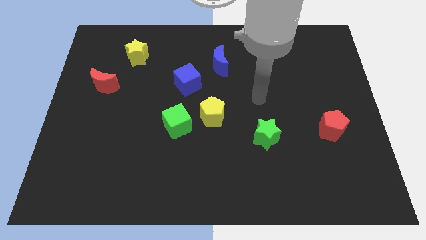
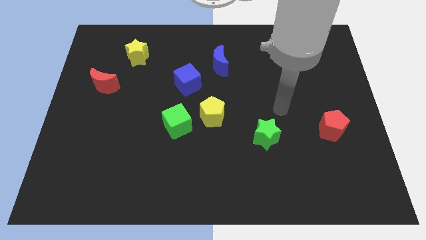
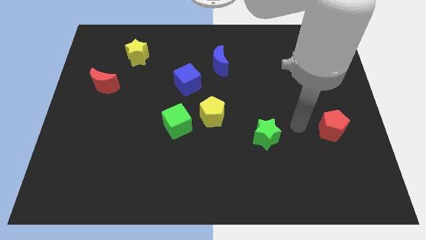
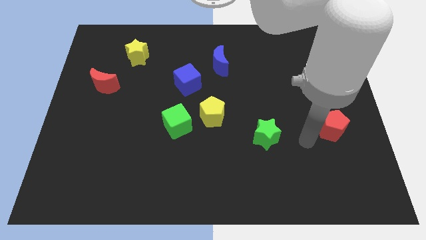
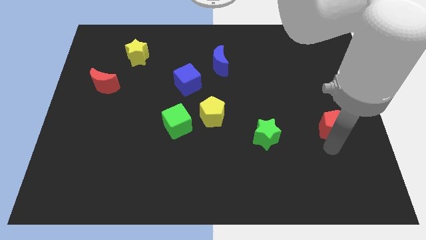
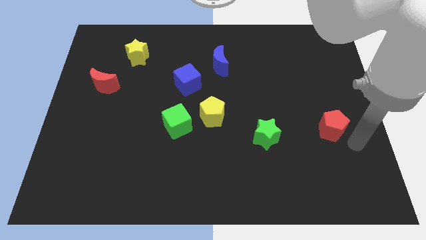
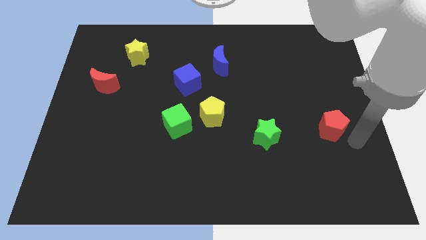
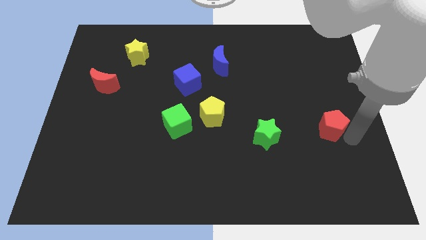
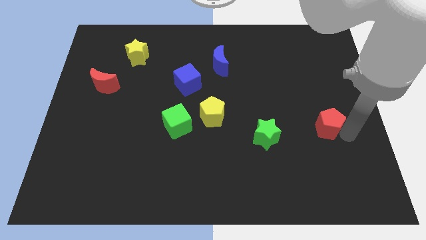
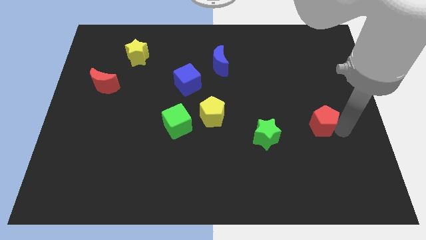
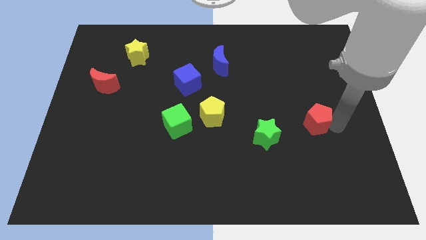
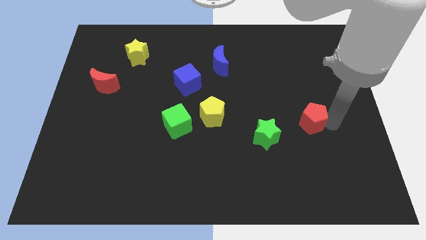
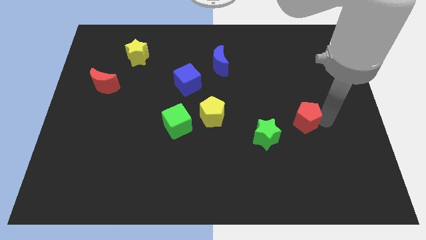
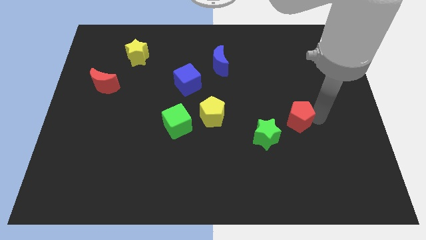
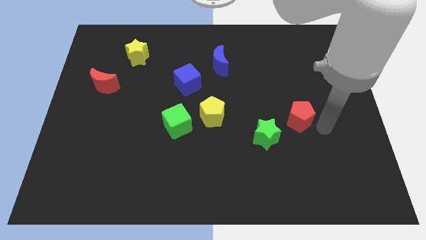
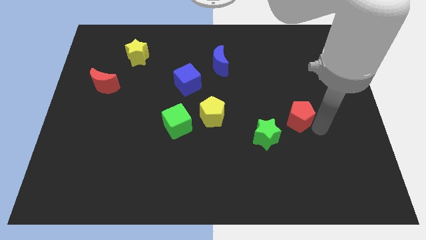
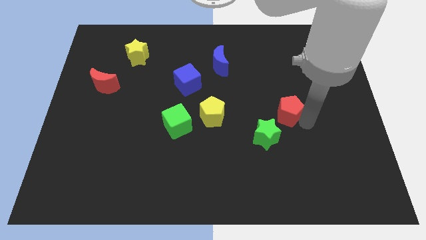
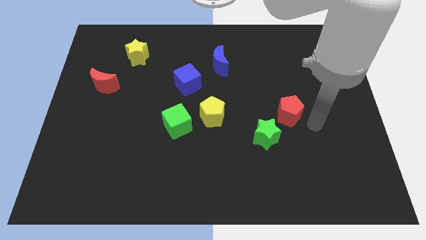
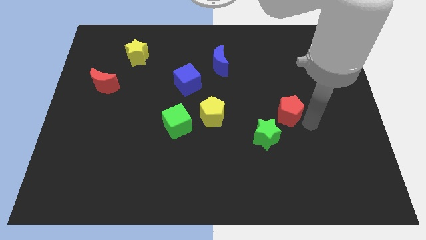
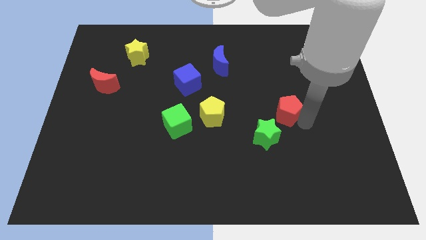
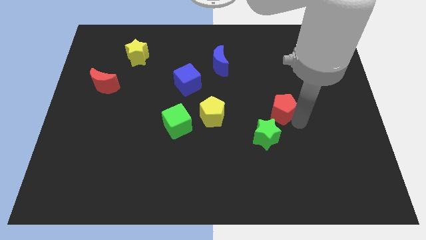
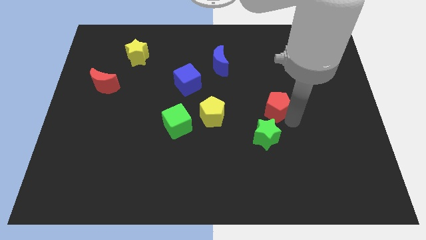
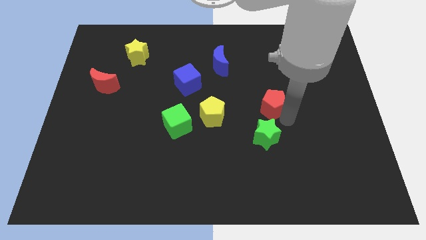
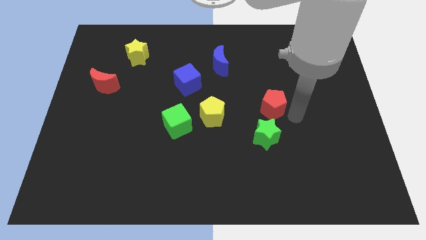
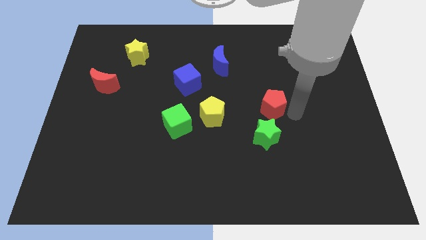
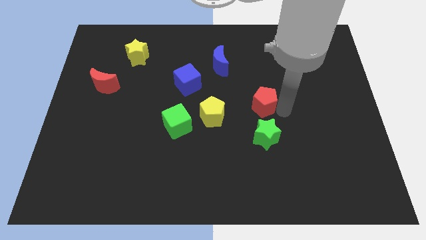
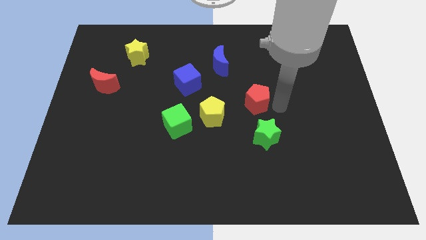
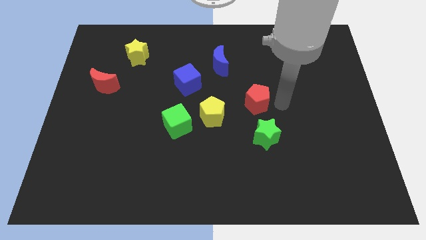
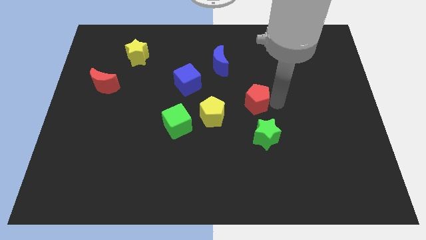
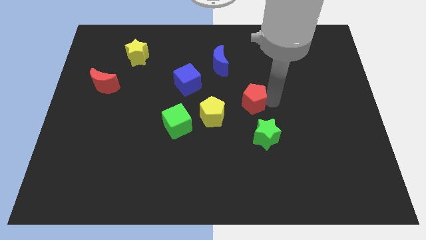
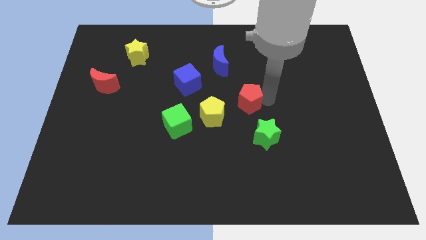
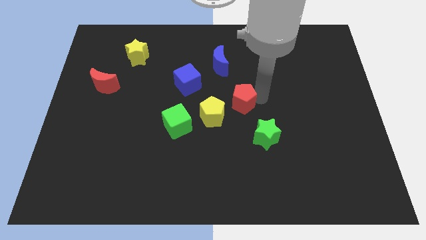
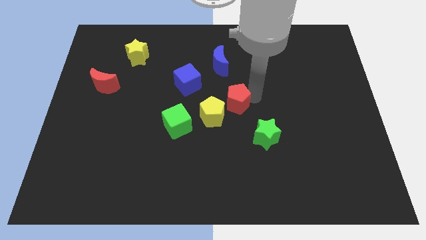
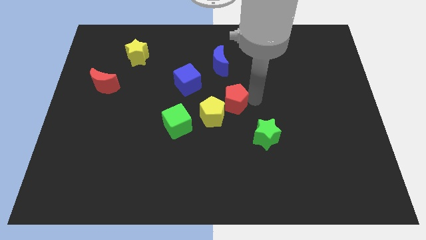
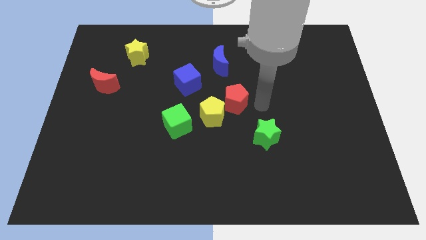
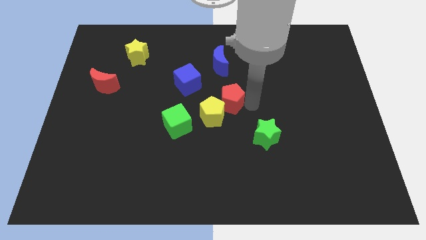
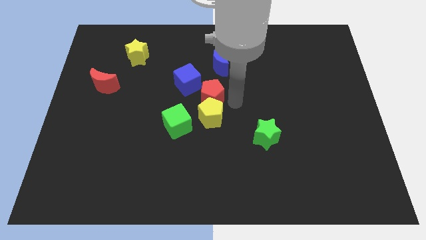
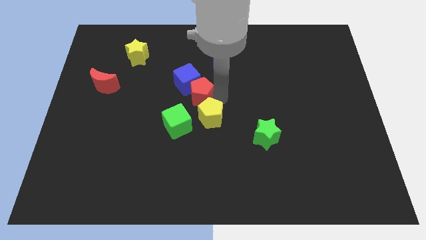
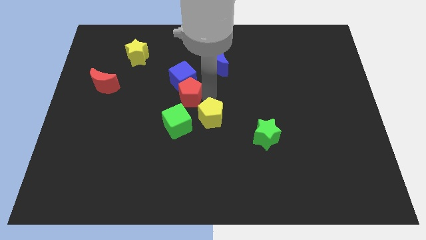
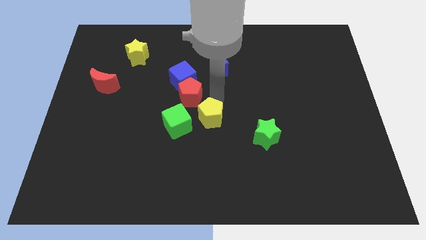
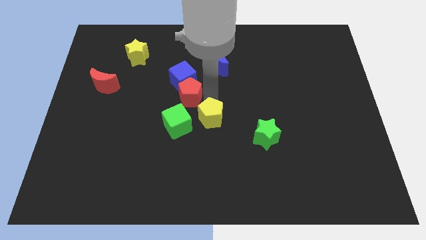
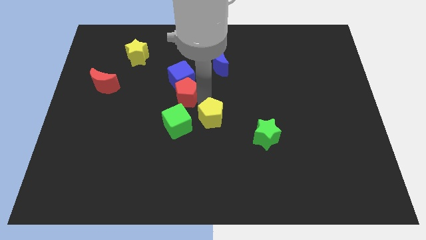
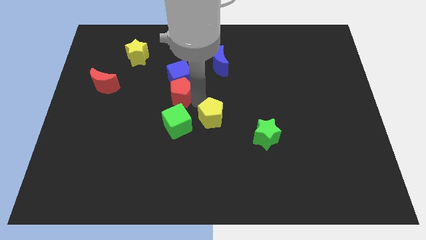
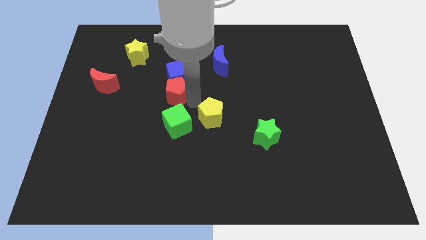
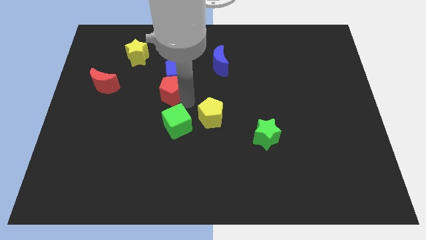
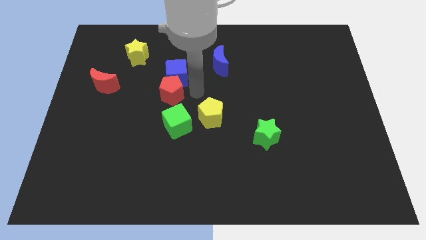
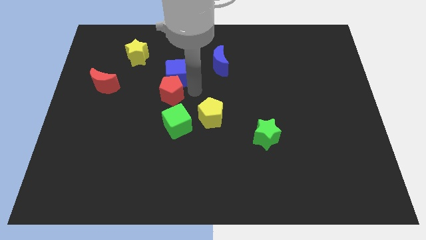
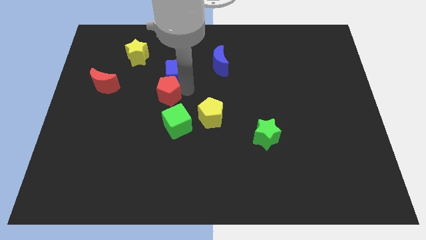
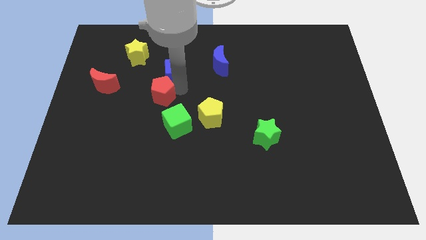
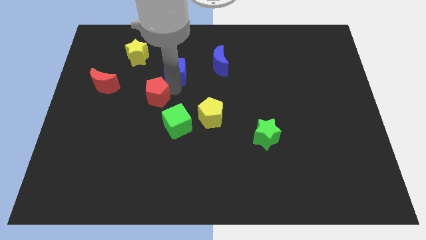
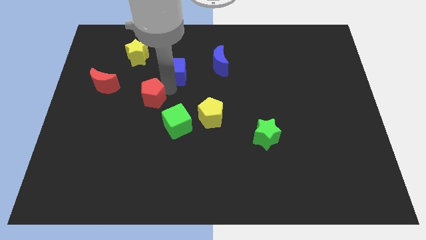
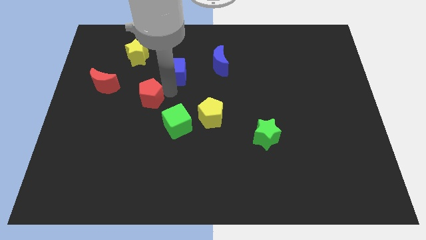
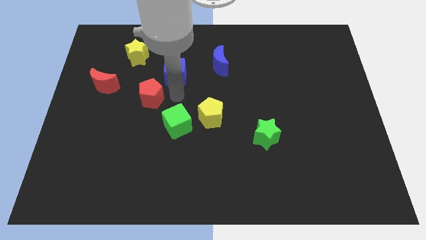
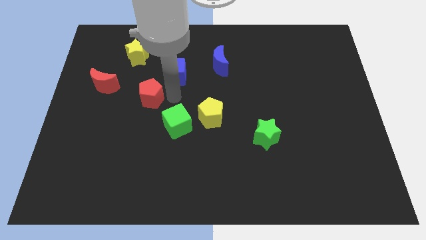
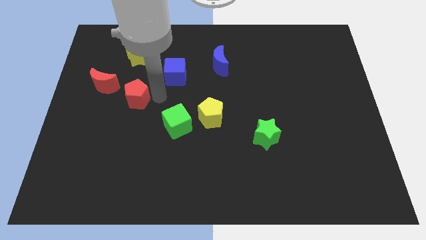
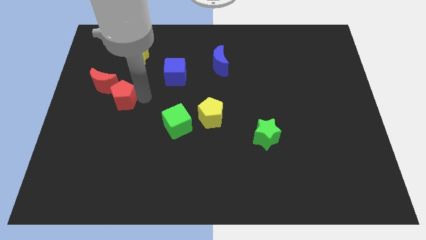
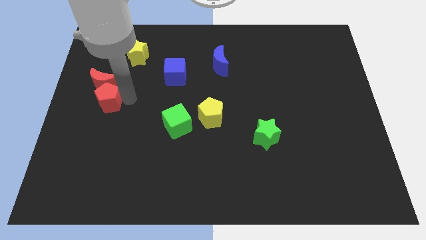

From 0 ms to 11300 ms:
slide the red pentagon to the left side

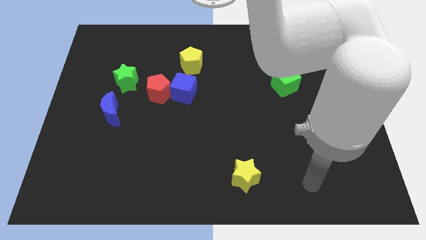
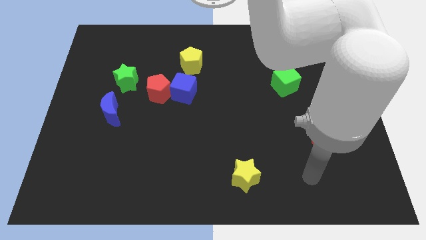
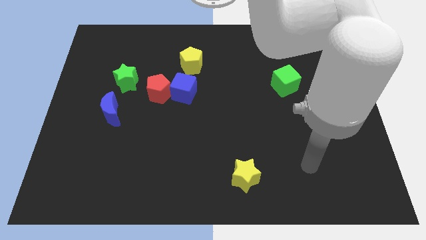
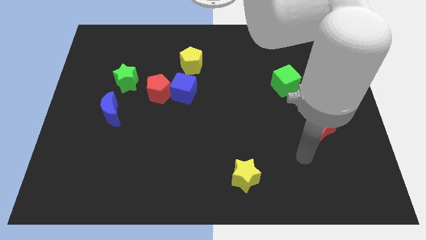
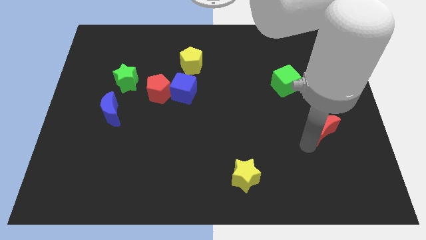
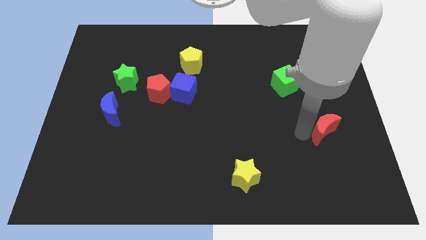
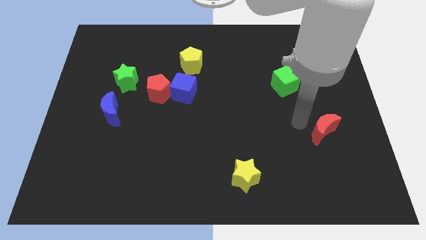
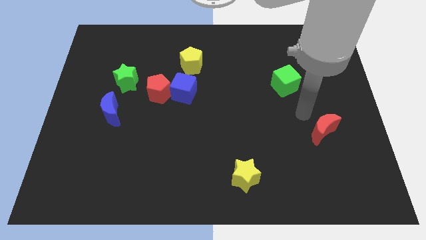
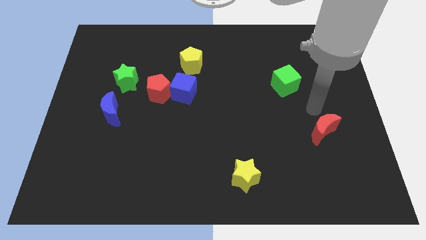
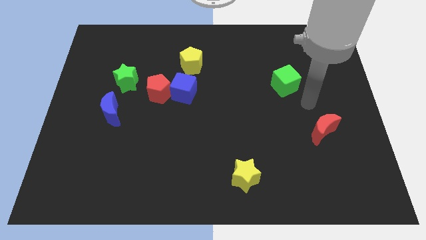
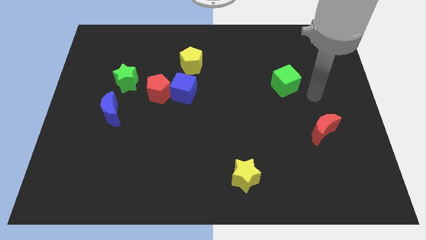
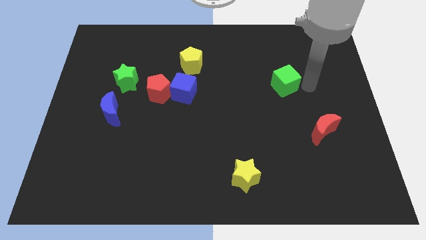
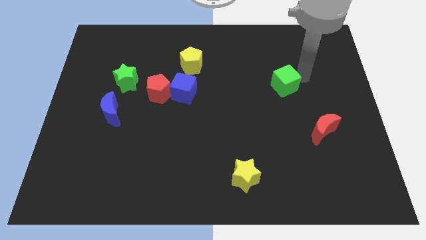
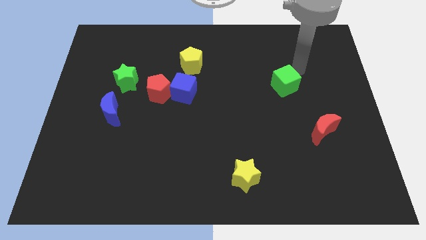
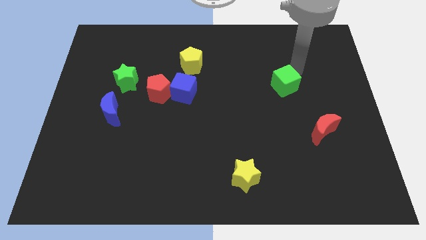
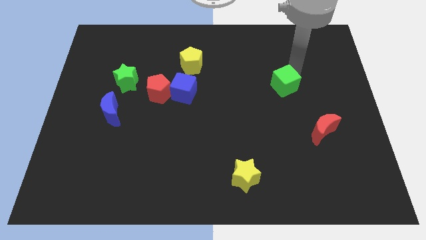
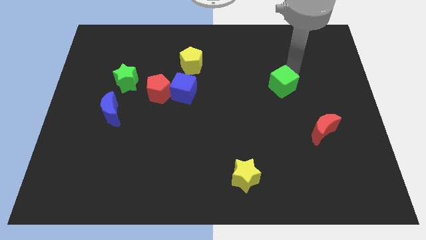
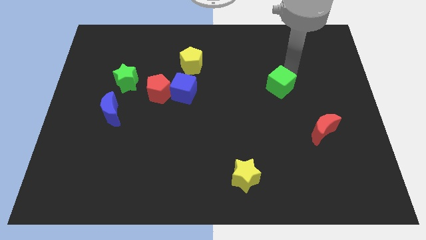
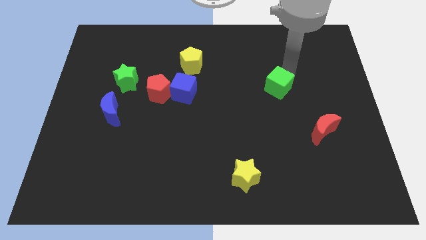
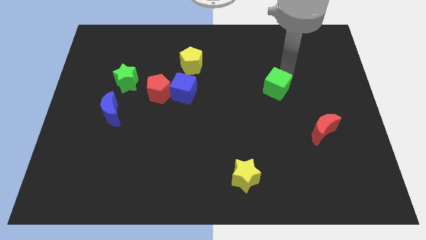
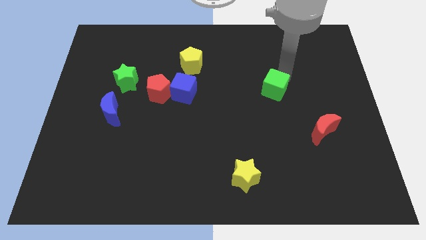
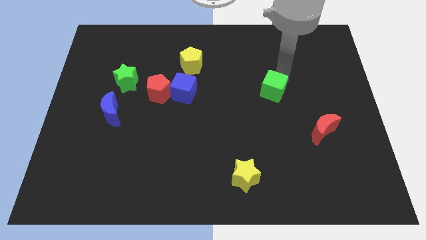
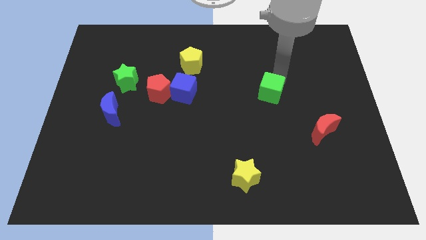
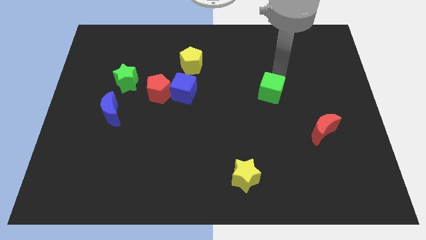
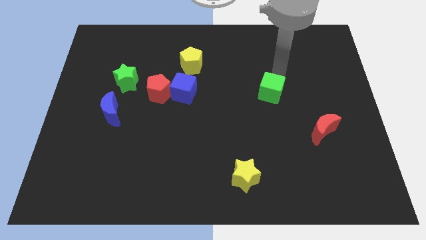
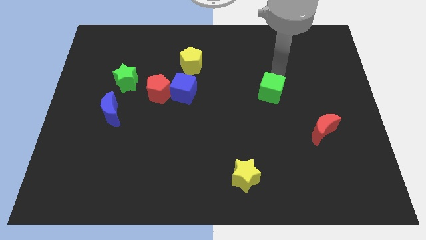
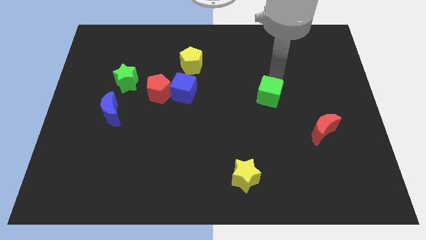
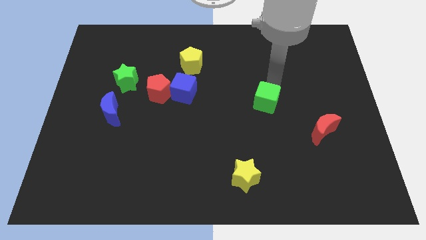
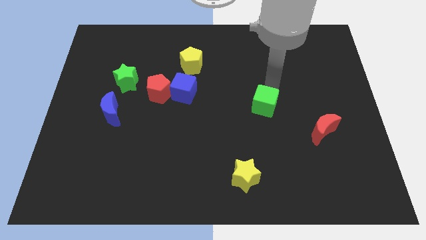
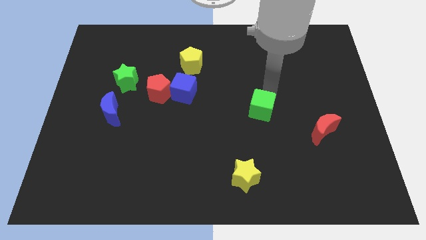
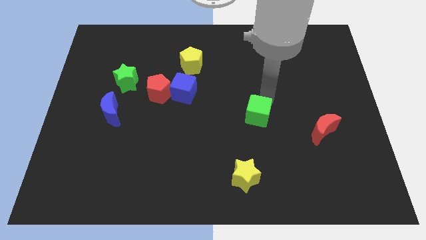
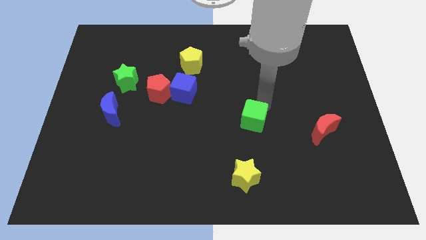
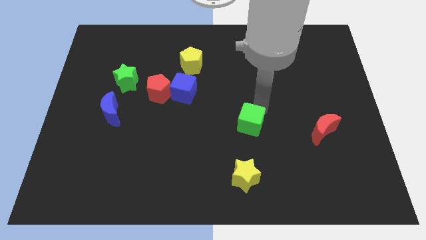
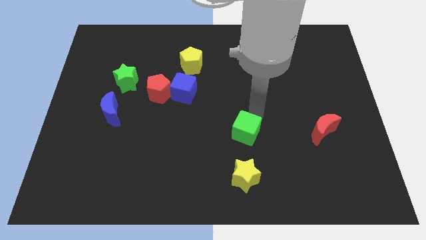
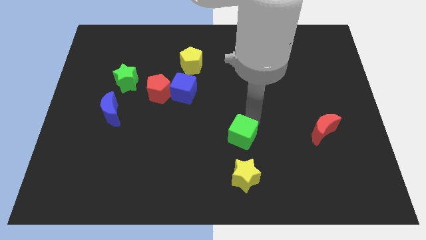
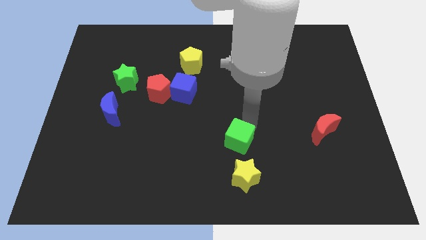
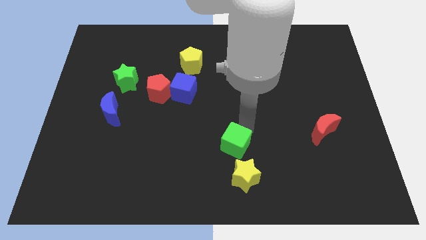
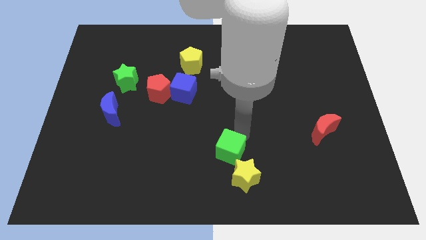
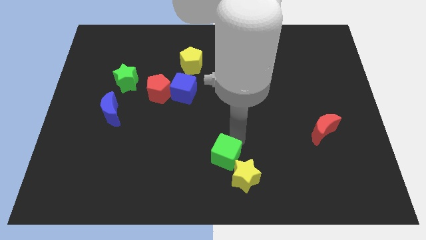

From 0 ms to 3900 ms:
move the green cube to the bottom
